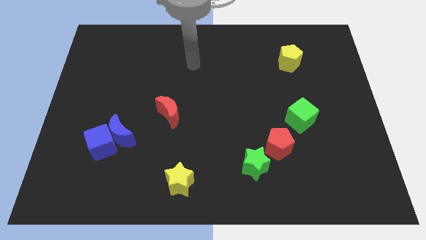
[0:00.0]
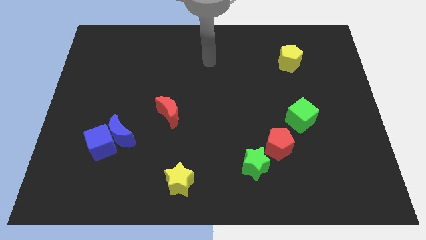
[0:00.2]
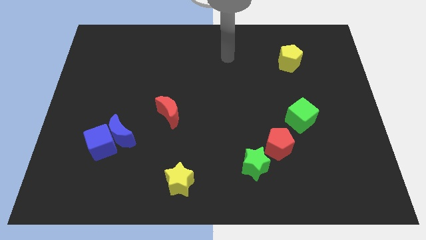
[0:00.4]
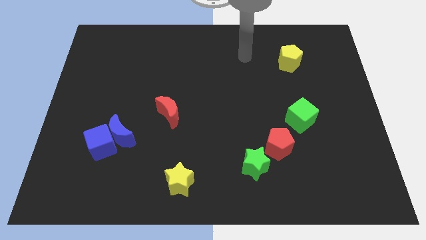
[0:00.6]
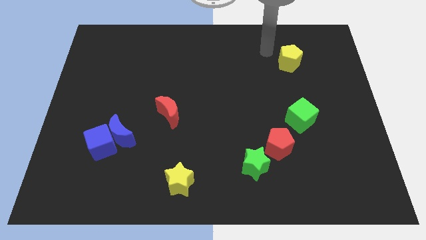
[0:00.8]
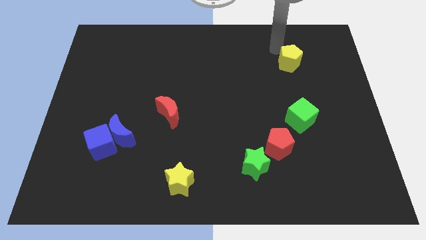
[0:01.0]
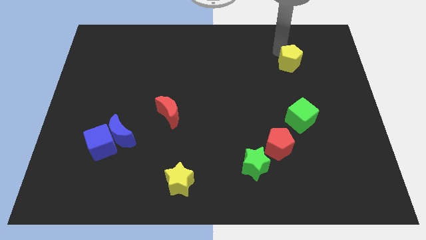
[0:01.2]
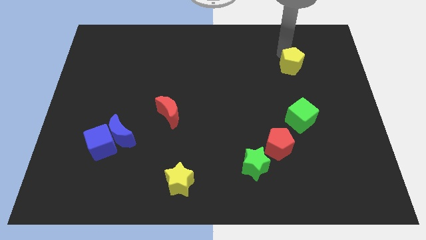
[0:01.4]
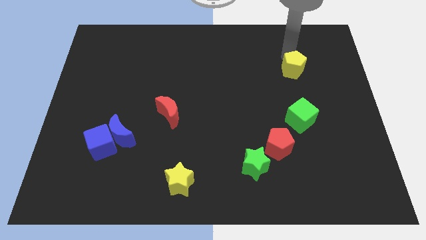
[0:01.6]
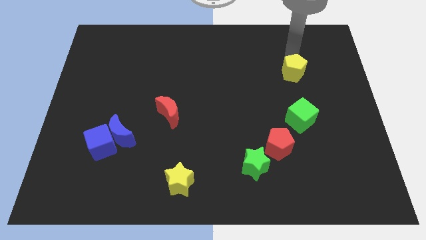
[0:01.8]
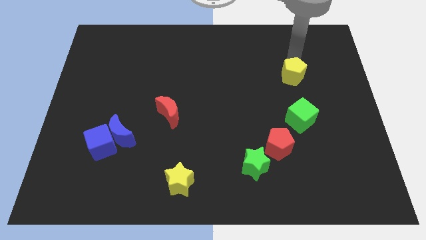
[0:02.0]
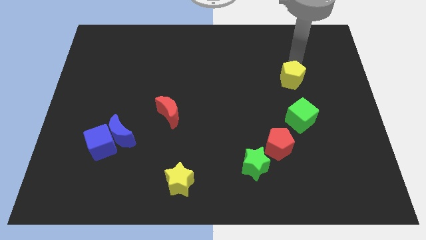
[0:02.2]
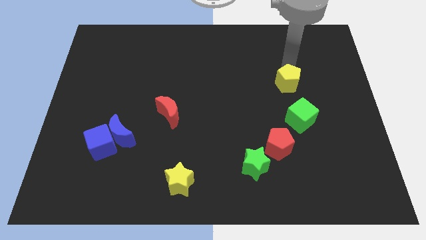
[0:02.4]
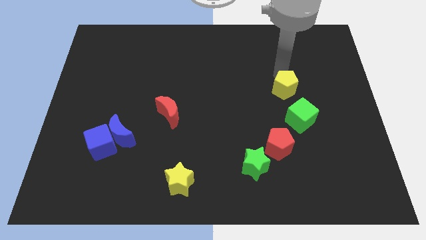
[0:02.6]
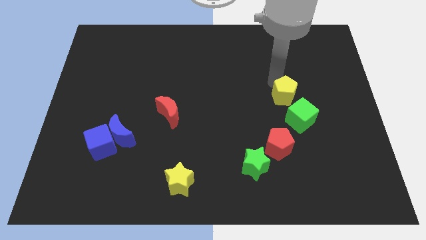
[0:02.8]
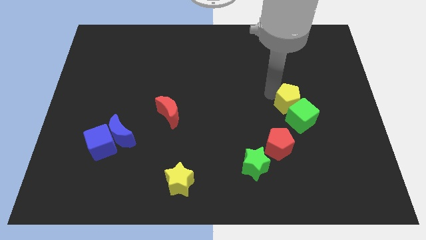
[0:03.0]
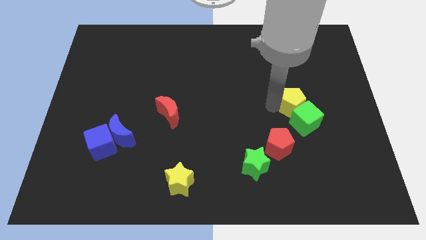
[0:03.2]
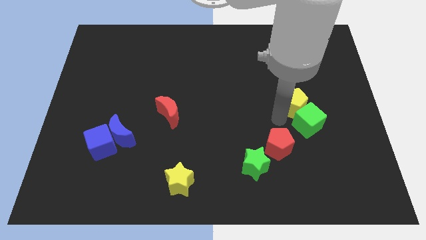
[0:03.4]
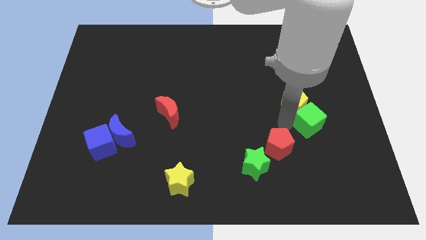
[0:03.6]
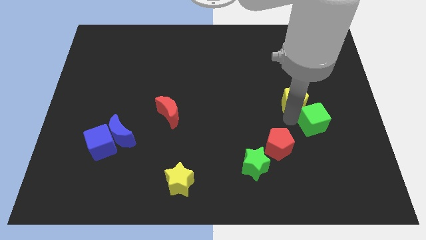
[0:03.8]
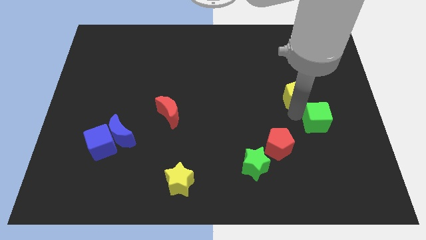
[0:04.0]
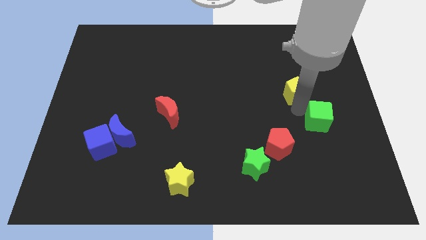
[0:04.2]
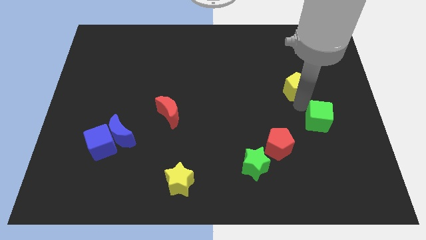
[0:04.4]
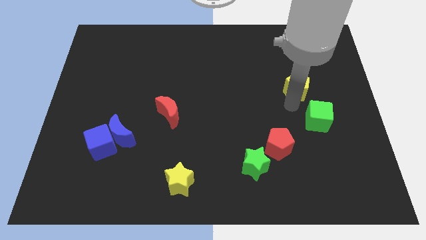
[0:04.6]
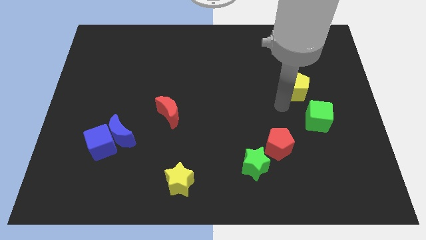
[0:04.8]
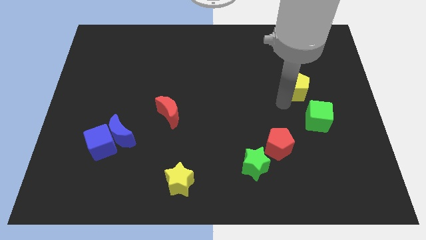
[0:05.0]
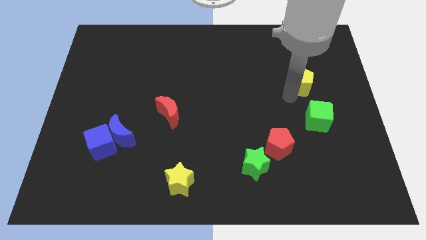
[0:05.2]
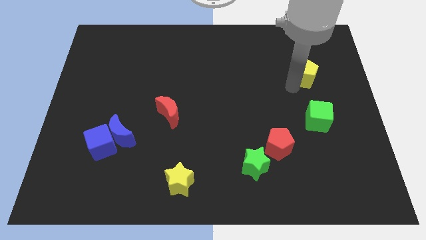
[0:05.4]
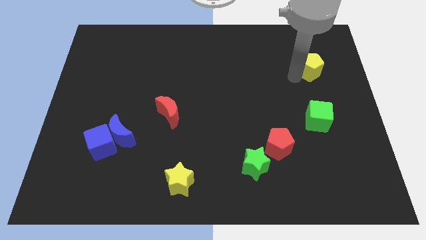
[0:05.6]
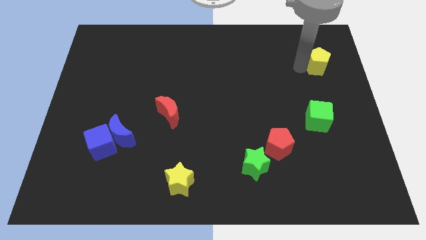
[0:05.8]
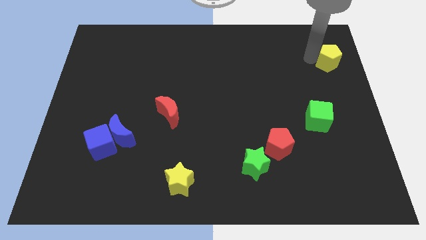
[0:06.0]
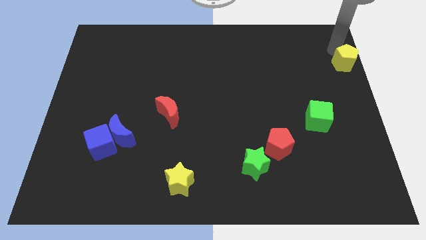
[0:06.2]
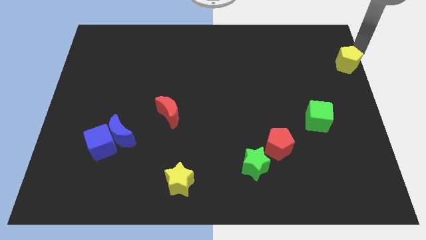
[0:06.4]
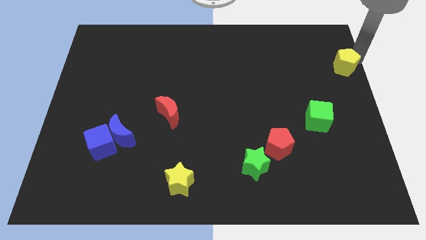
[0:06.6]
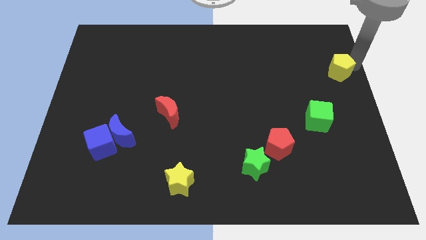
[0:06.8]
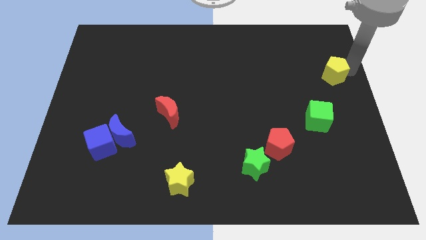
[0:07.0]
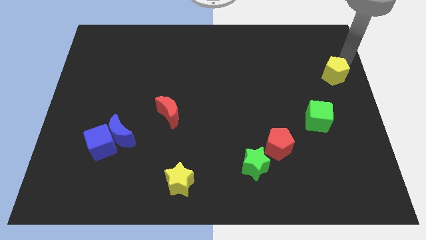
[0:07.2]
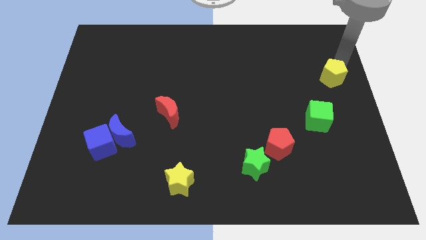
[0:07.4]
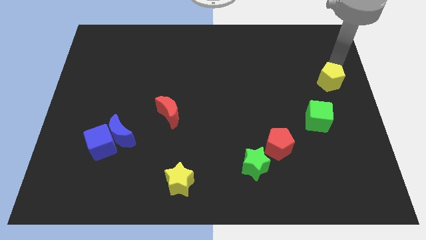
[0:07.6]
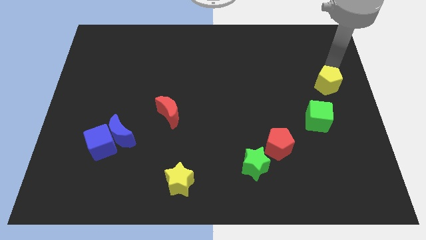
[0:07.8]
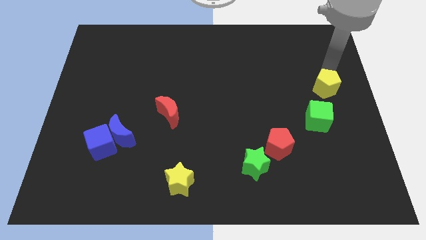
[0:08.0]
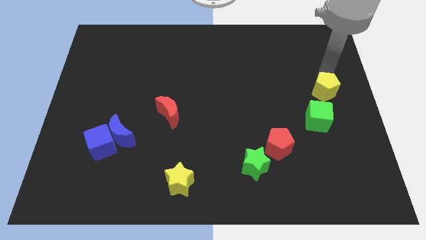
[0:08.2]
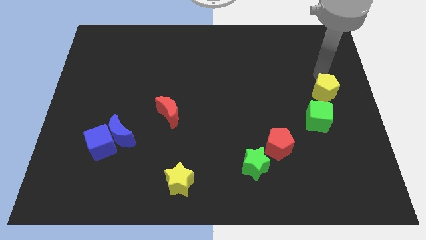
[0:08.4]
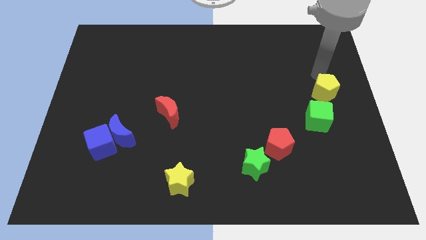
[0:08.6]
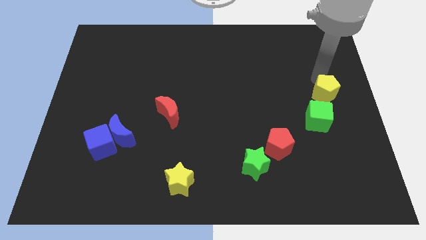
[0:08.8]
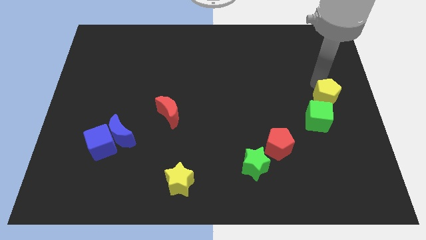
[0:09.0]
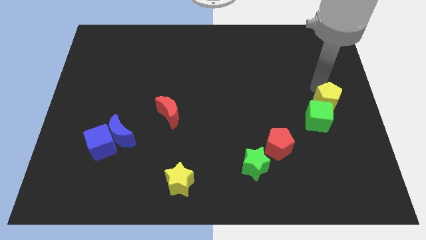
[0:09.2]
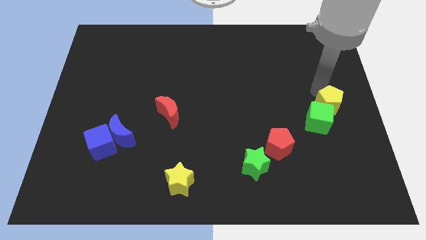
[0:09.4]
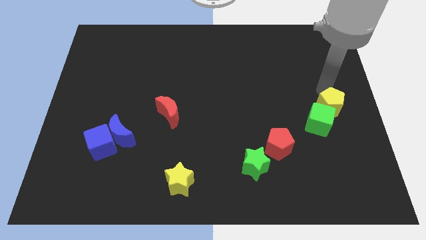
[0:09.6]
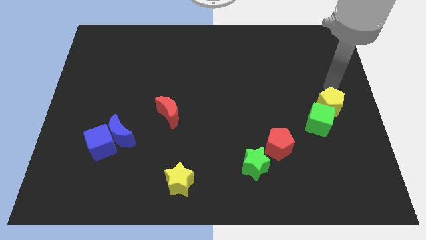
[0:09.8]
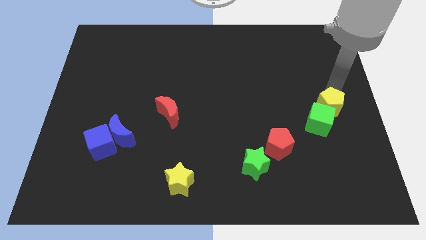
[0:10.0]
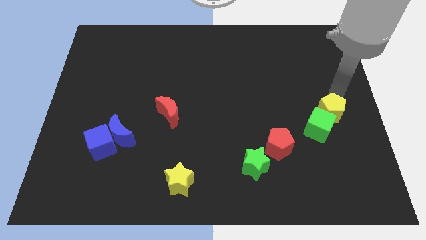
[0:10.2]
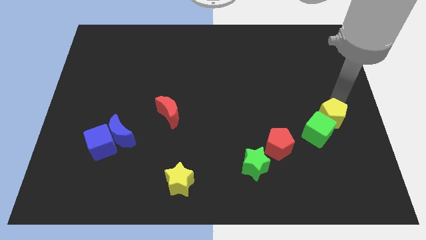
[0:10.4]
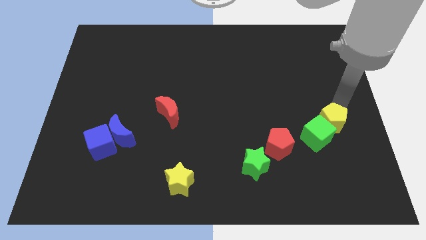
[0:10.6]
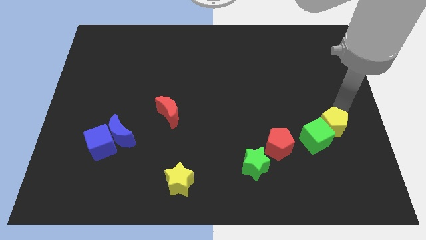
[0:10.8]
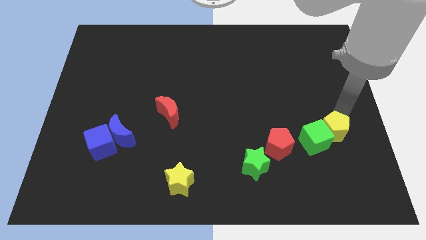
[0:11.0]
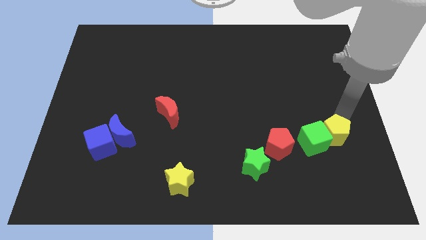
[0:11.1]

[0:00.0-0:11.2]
slide the yellow pentagon downwards

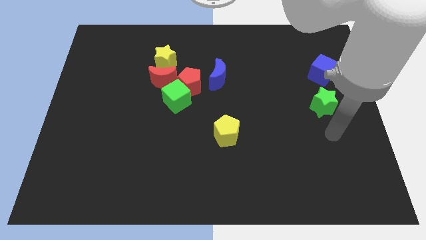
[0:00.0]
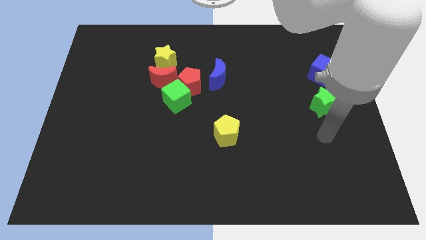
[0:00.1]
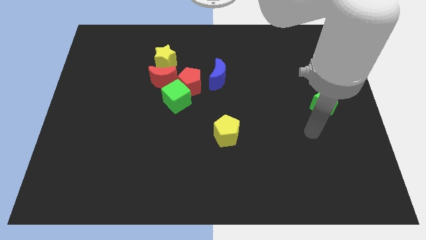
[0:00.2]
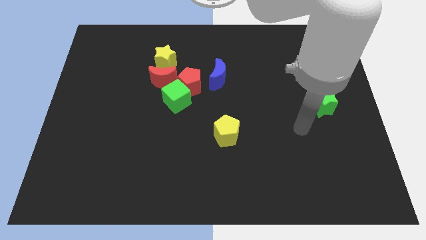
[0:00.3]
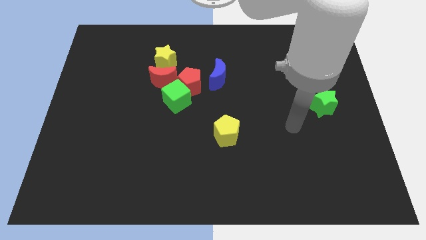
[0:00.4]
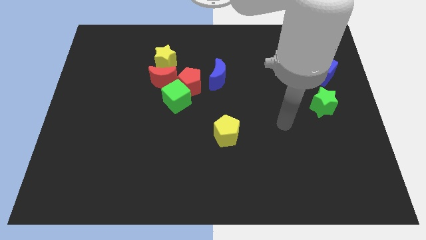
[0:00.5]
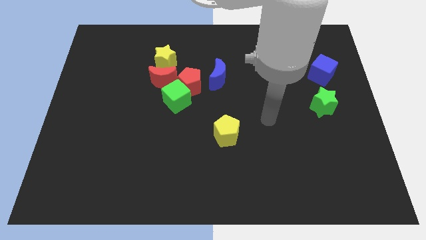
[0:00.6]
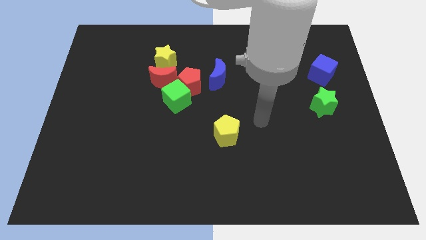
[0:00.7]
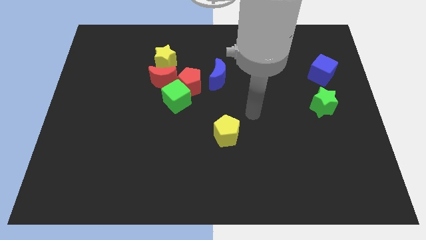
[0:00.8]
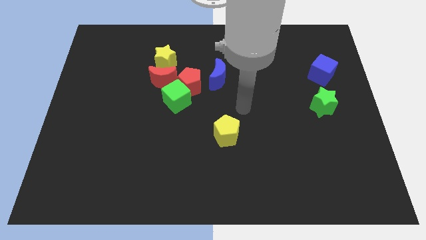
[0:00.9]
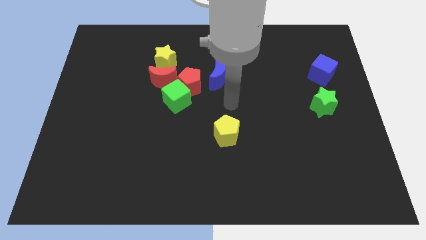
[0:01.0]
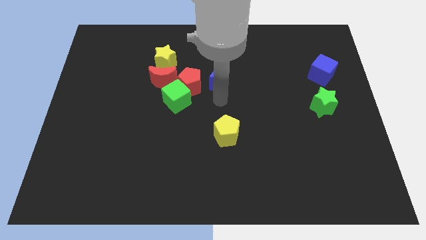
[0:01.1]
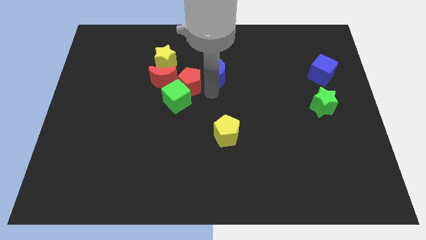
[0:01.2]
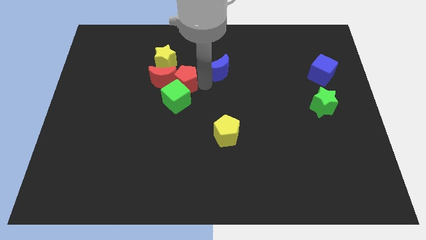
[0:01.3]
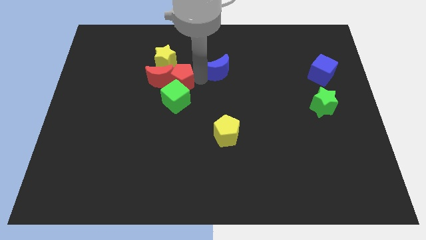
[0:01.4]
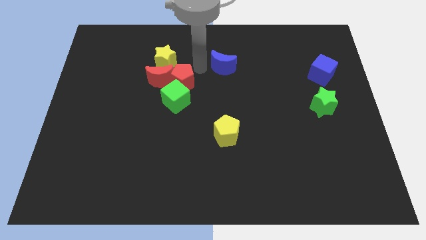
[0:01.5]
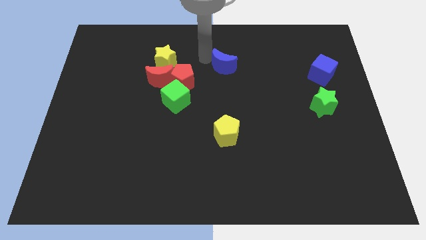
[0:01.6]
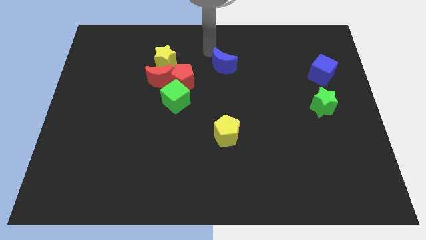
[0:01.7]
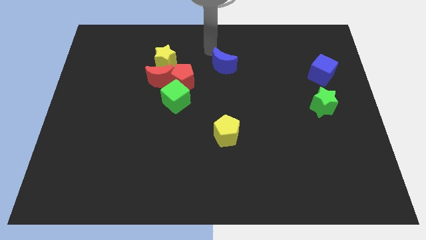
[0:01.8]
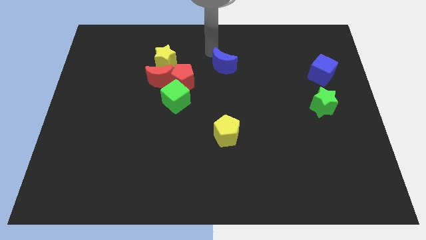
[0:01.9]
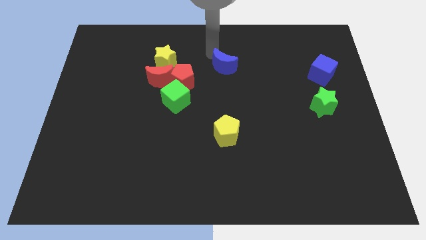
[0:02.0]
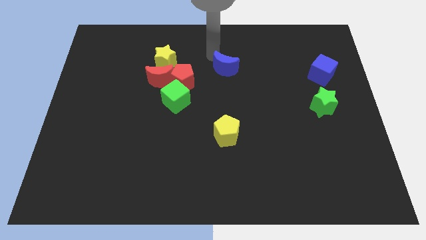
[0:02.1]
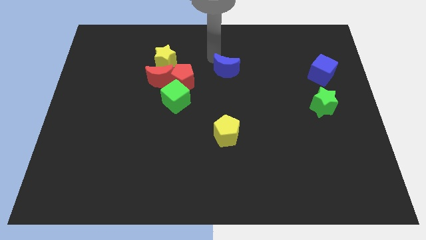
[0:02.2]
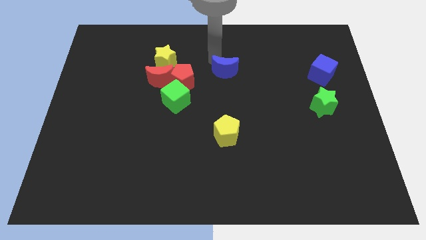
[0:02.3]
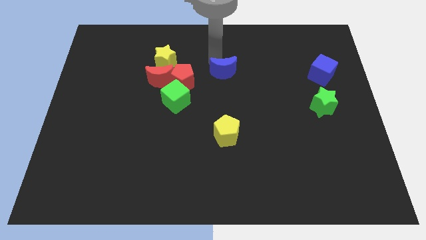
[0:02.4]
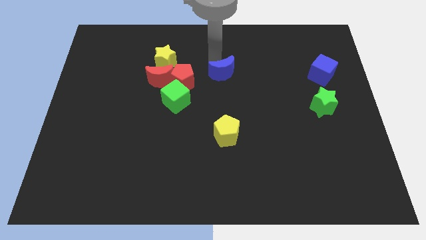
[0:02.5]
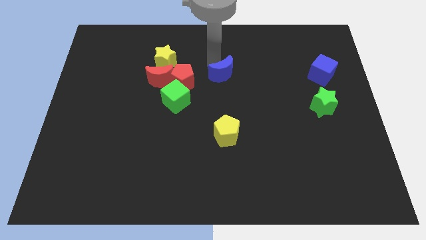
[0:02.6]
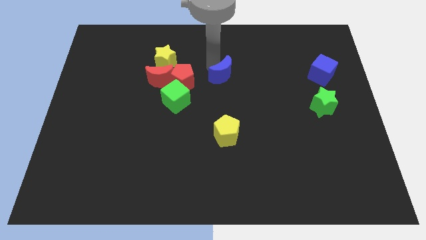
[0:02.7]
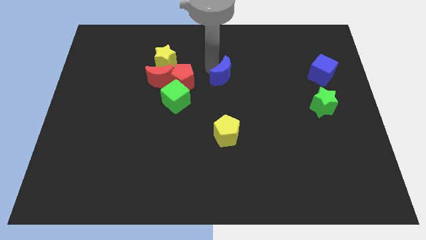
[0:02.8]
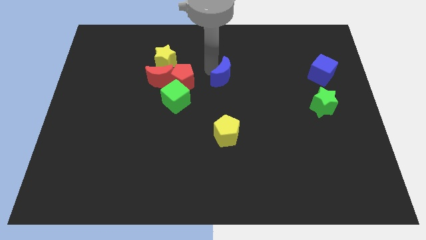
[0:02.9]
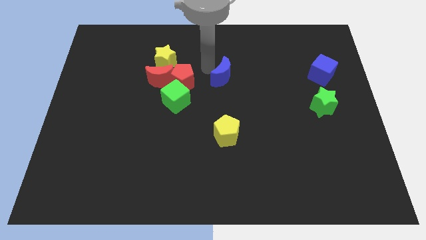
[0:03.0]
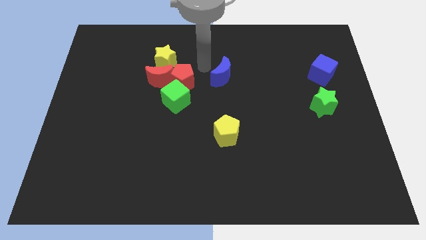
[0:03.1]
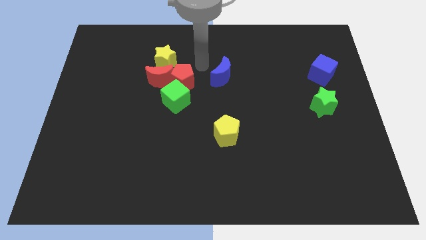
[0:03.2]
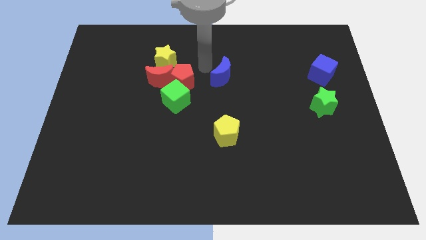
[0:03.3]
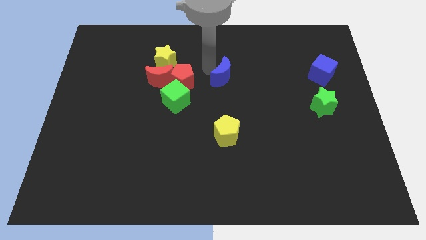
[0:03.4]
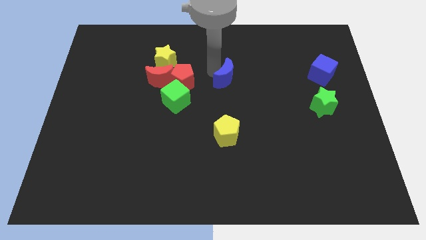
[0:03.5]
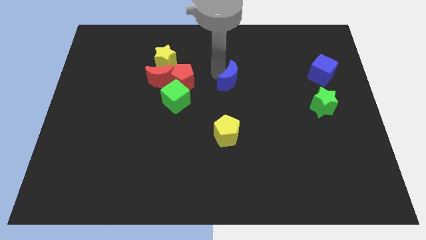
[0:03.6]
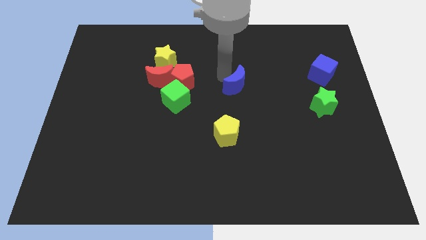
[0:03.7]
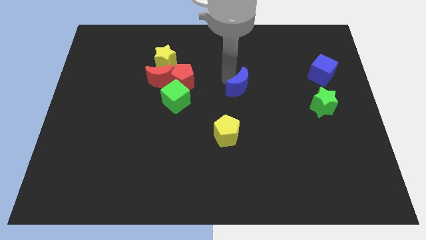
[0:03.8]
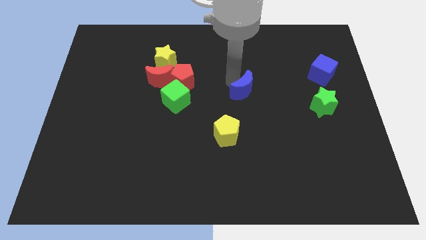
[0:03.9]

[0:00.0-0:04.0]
slide the blue moon a bit diagonally down and right
